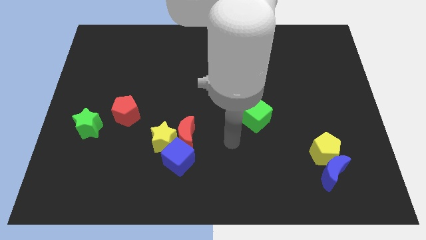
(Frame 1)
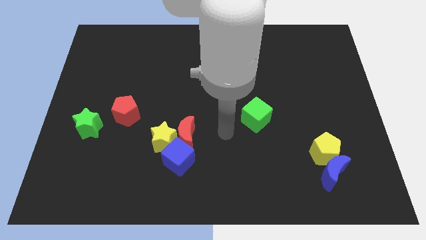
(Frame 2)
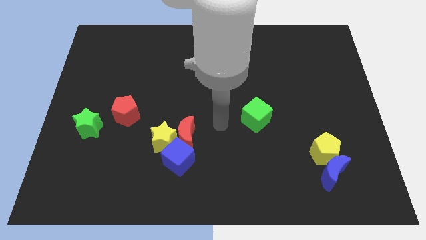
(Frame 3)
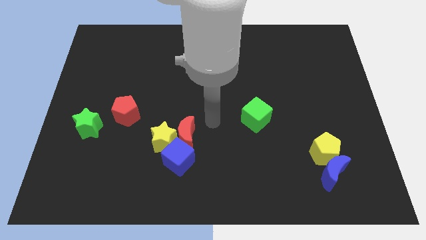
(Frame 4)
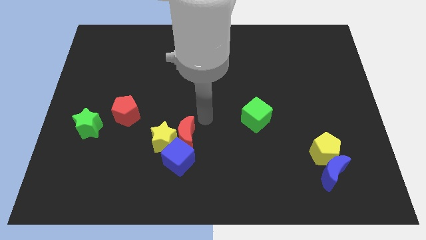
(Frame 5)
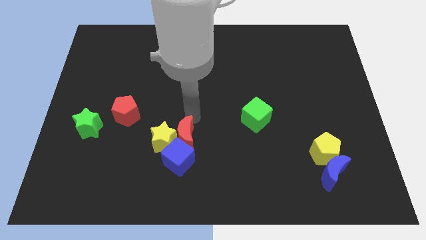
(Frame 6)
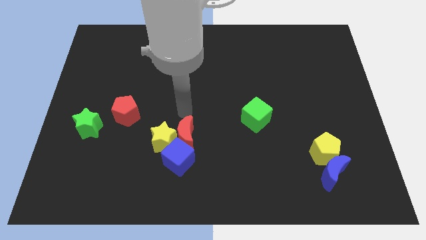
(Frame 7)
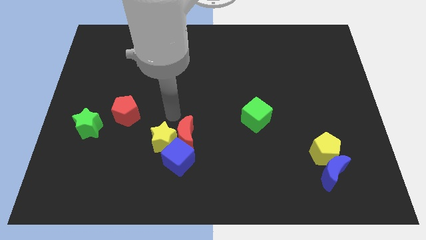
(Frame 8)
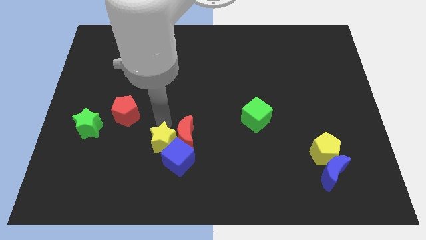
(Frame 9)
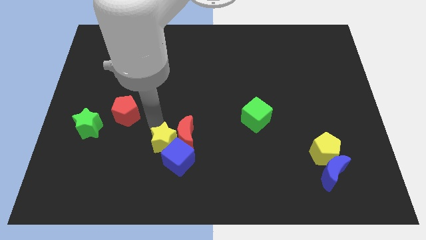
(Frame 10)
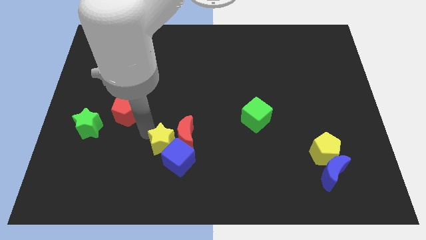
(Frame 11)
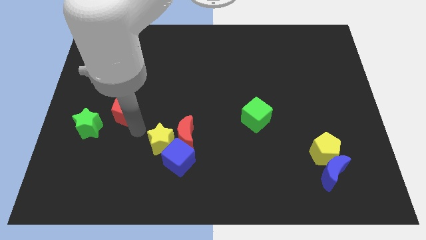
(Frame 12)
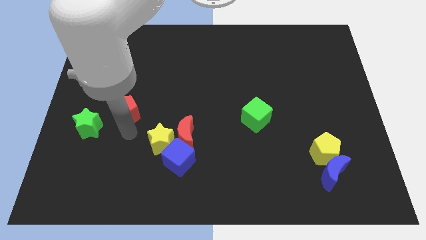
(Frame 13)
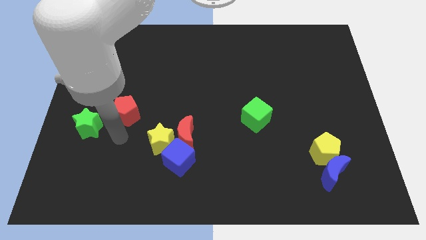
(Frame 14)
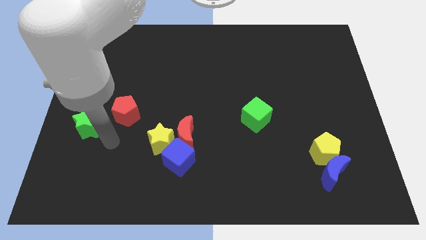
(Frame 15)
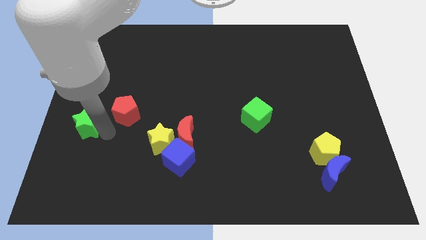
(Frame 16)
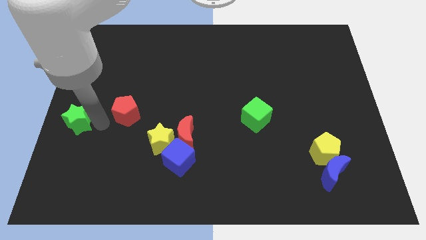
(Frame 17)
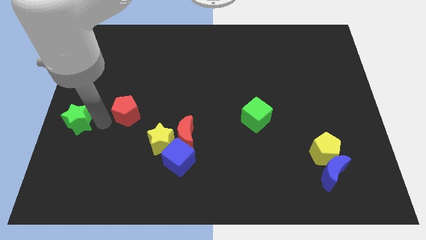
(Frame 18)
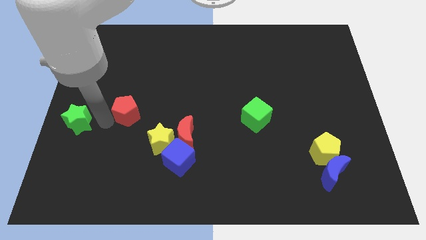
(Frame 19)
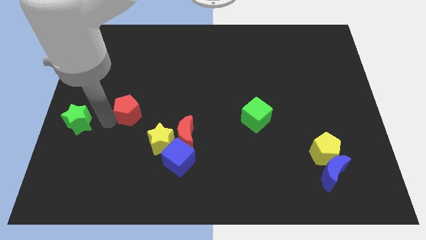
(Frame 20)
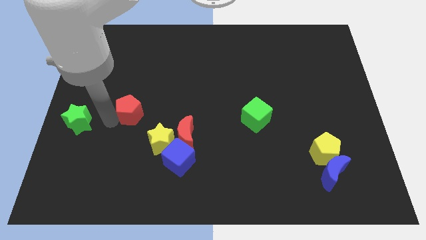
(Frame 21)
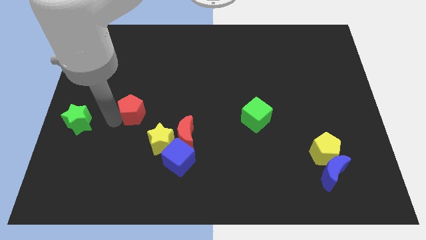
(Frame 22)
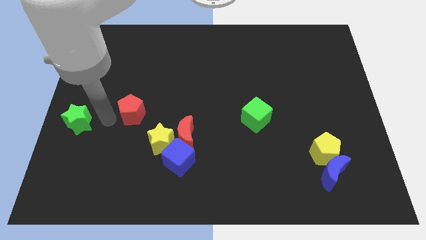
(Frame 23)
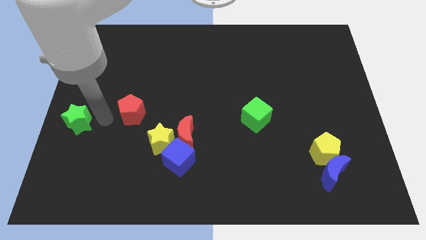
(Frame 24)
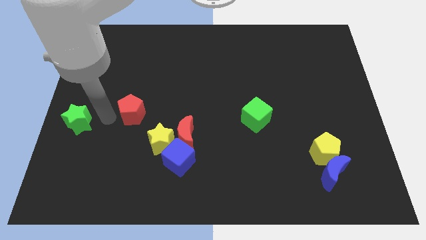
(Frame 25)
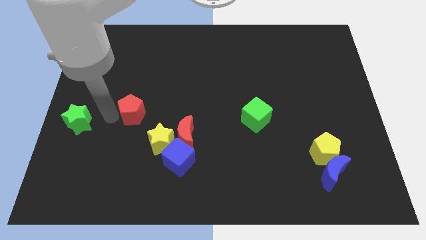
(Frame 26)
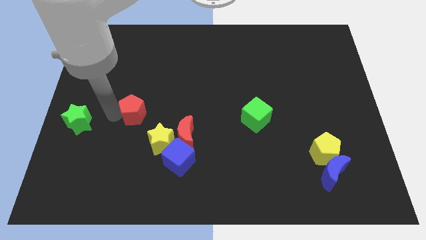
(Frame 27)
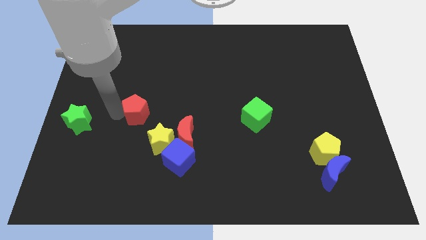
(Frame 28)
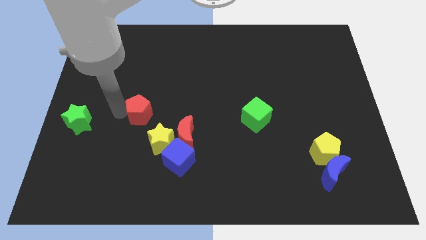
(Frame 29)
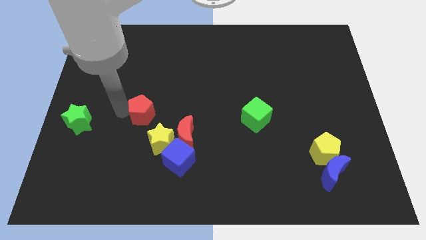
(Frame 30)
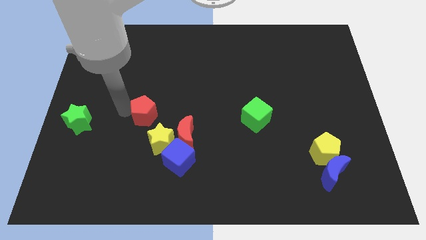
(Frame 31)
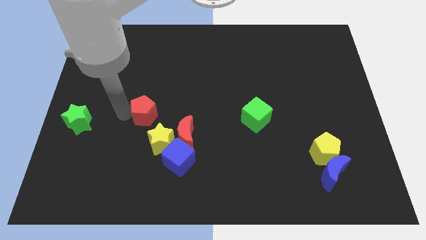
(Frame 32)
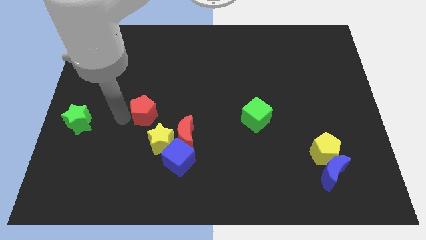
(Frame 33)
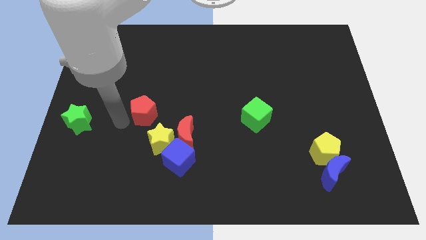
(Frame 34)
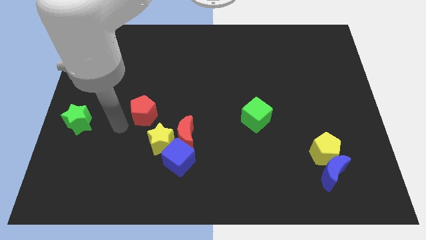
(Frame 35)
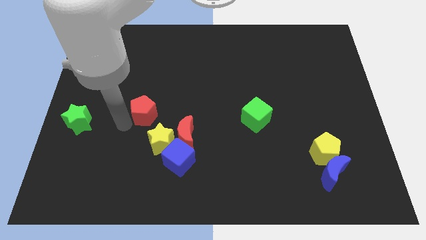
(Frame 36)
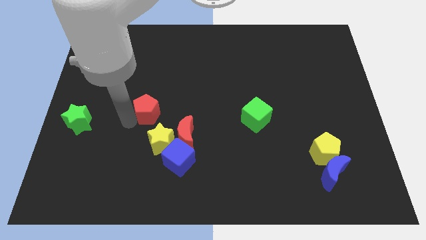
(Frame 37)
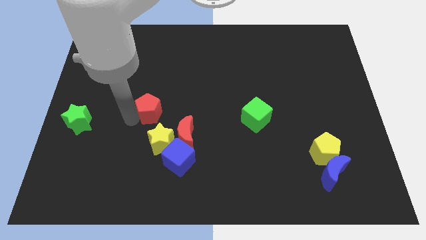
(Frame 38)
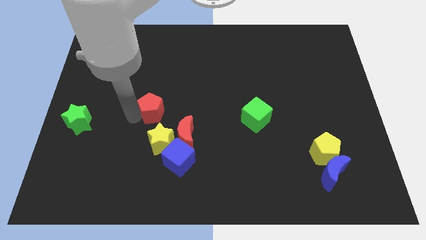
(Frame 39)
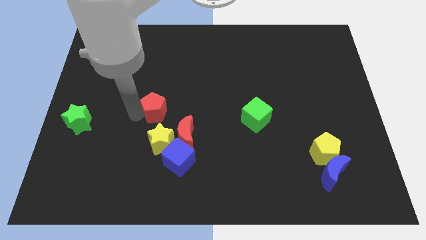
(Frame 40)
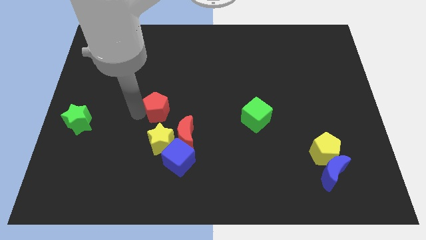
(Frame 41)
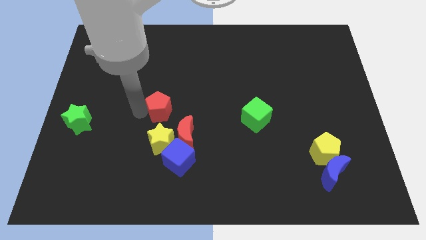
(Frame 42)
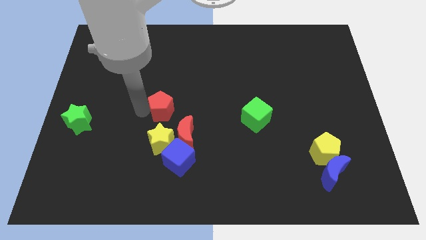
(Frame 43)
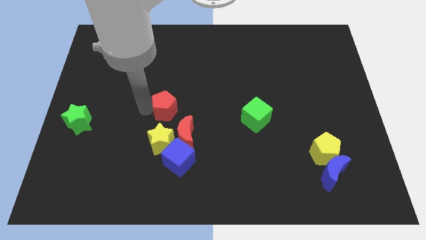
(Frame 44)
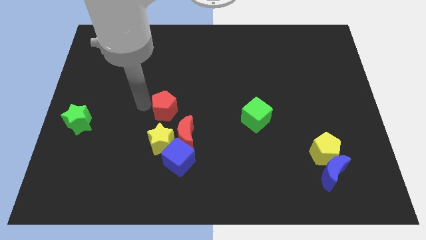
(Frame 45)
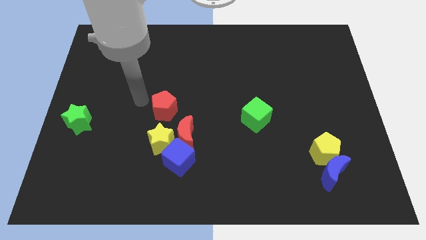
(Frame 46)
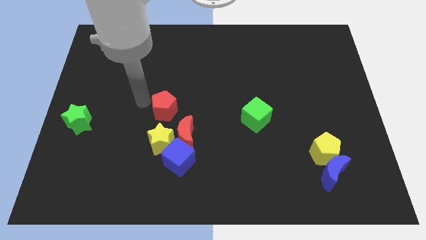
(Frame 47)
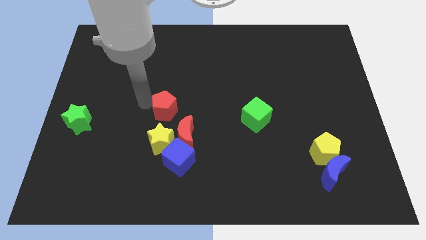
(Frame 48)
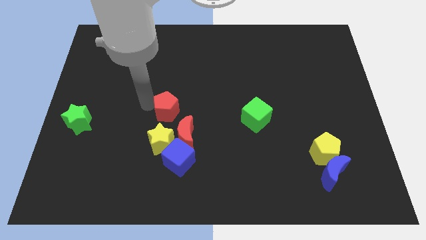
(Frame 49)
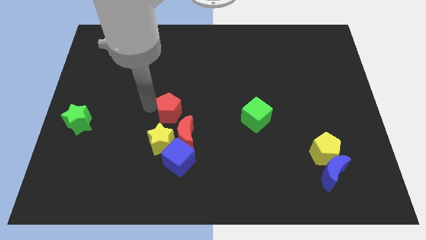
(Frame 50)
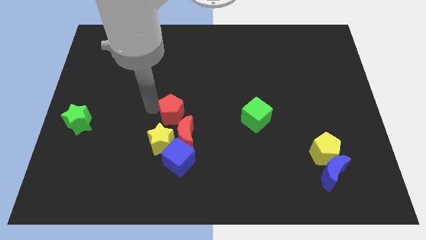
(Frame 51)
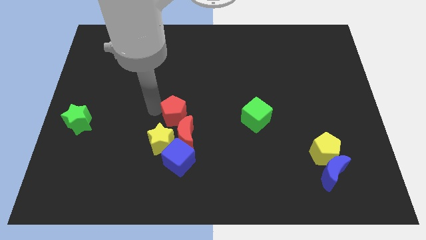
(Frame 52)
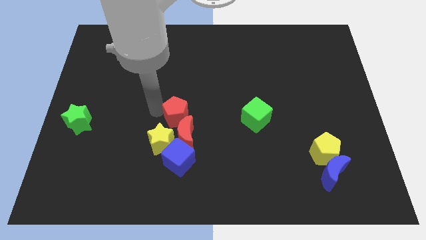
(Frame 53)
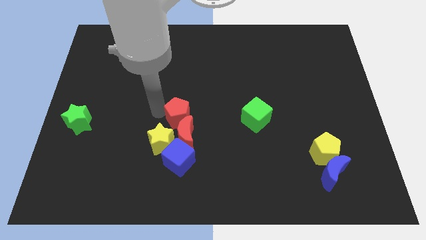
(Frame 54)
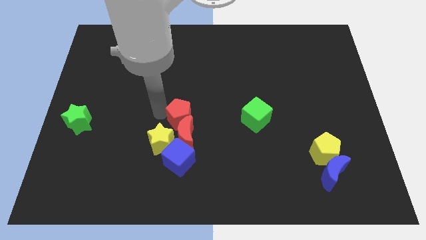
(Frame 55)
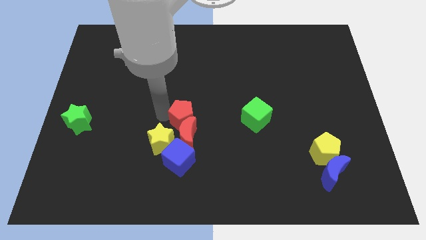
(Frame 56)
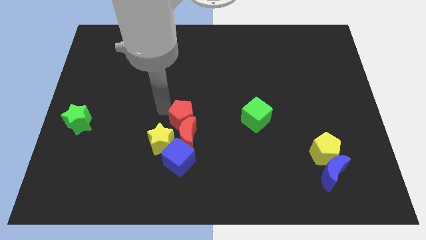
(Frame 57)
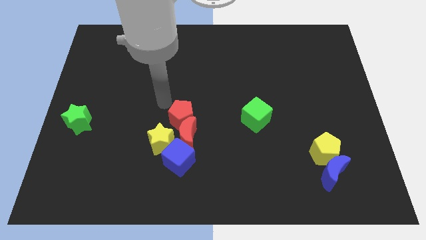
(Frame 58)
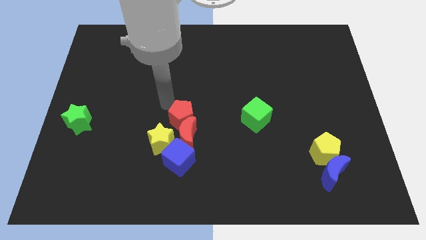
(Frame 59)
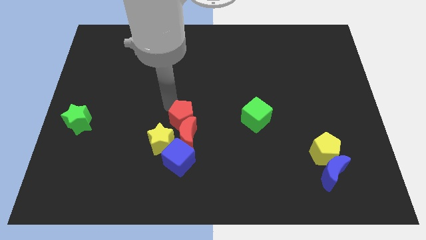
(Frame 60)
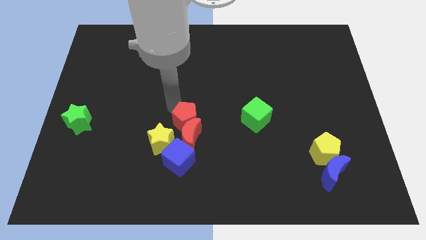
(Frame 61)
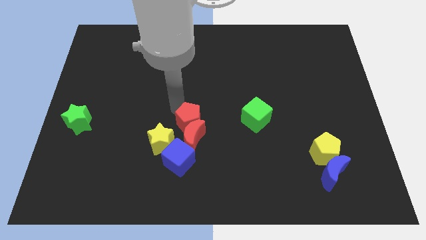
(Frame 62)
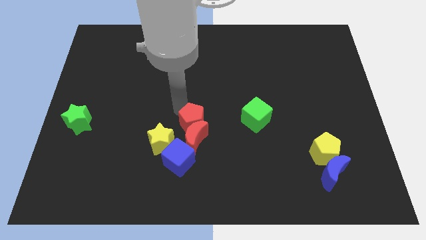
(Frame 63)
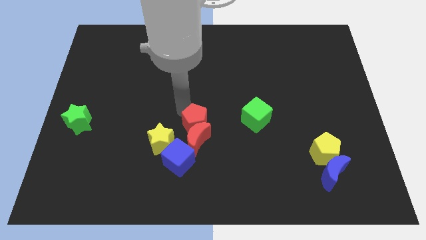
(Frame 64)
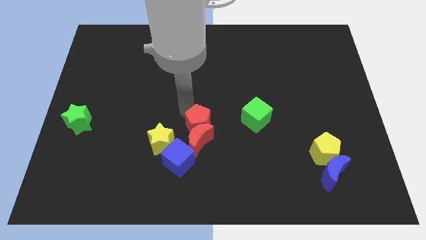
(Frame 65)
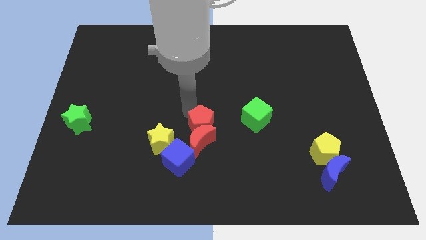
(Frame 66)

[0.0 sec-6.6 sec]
move the red pentagon right of the yellow star

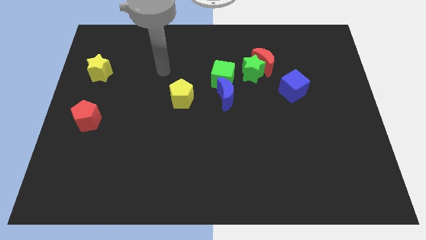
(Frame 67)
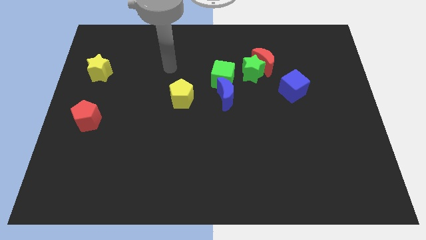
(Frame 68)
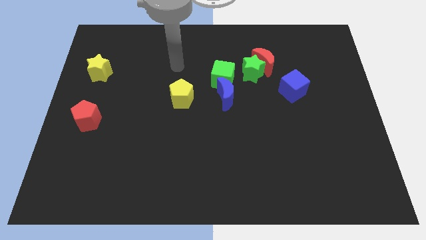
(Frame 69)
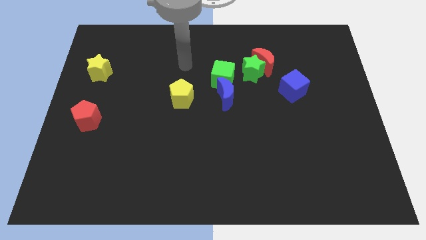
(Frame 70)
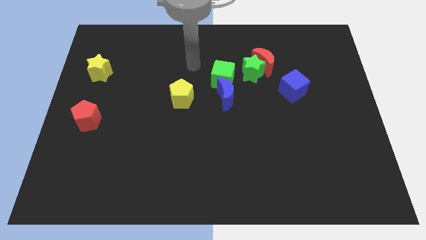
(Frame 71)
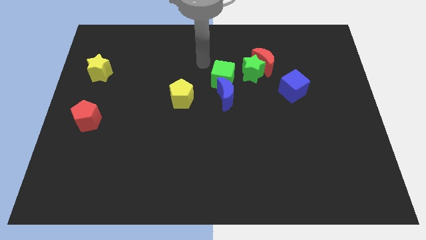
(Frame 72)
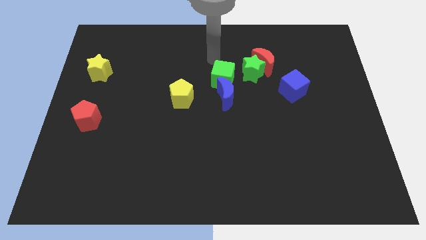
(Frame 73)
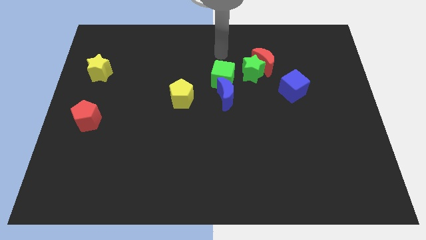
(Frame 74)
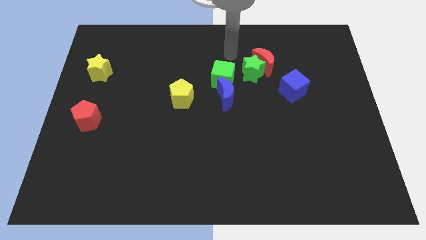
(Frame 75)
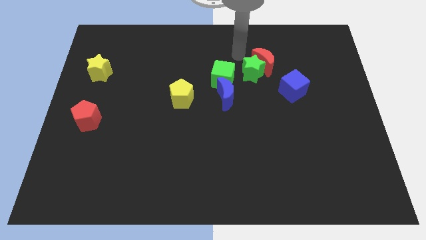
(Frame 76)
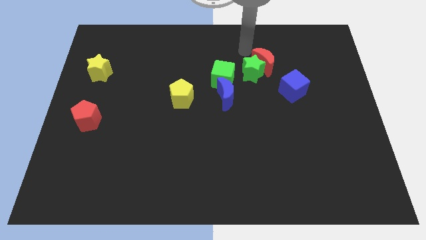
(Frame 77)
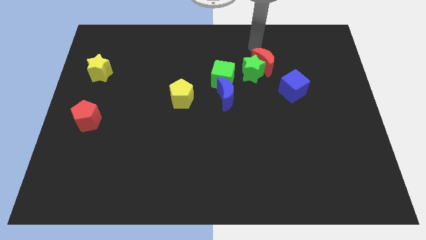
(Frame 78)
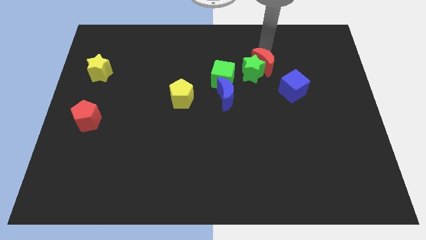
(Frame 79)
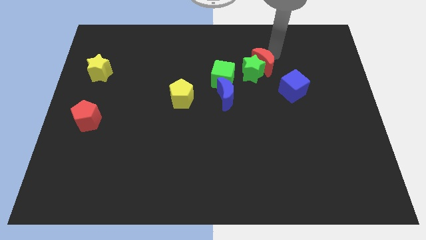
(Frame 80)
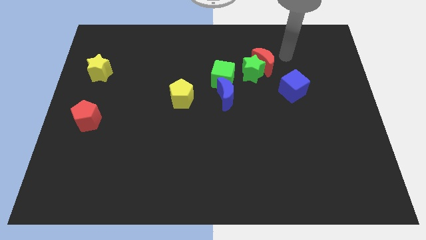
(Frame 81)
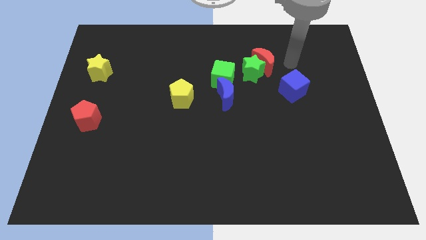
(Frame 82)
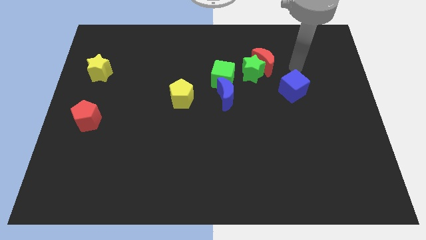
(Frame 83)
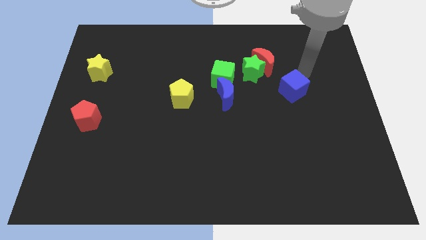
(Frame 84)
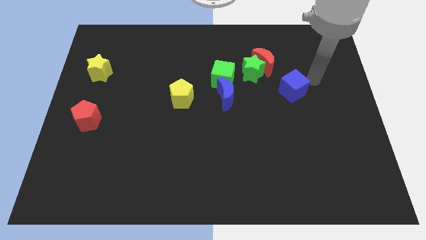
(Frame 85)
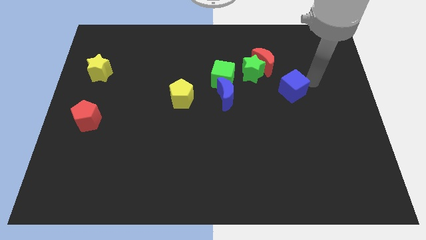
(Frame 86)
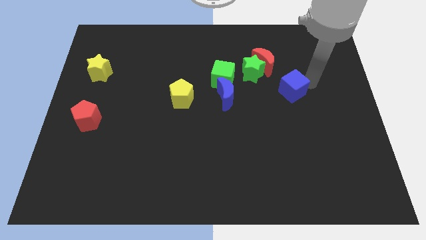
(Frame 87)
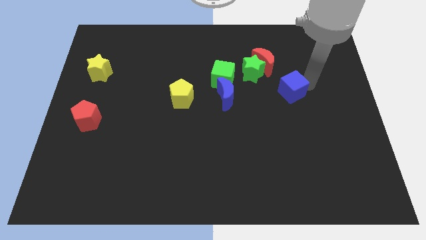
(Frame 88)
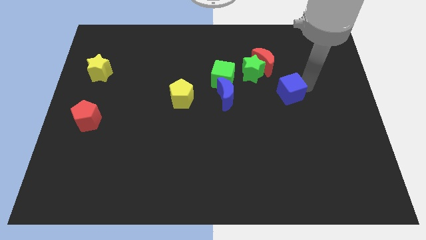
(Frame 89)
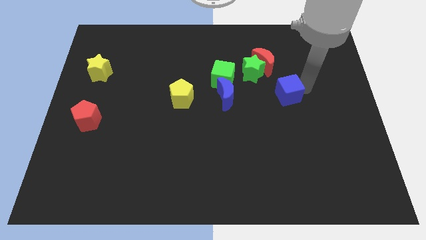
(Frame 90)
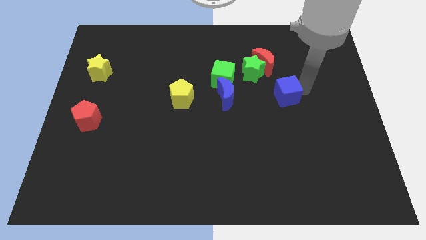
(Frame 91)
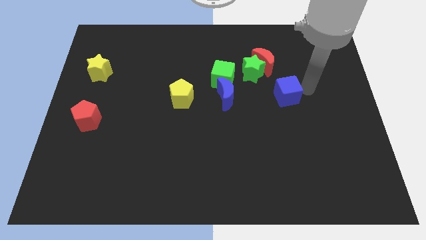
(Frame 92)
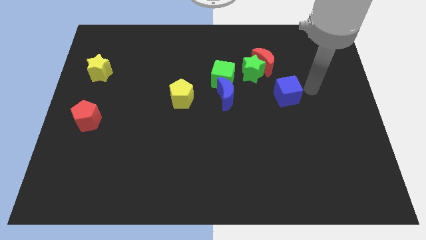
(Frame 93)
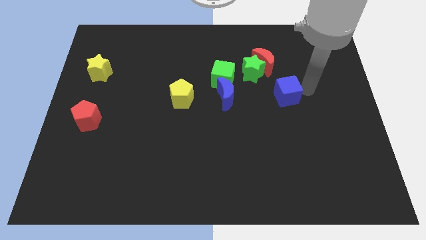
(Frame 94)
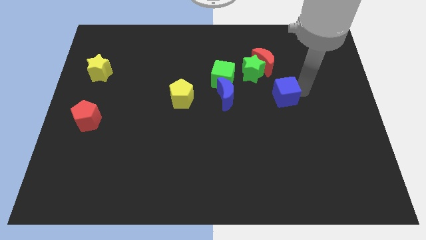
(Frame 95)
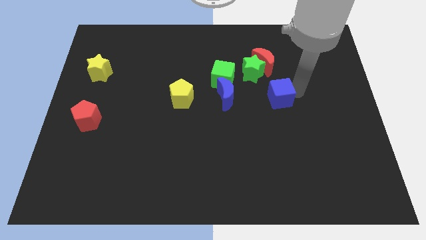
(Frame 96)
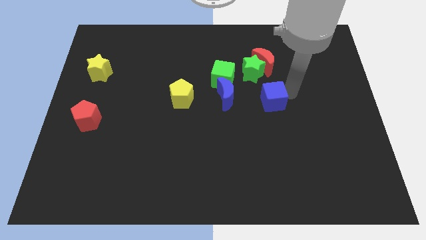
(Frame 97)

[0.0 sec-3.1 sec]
slide the blue cube to the bottom side of the green star
